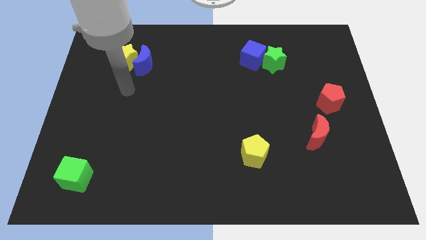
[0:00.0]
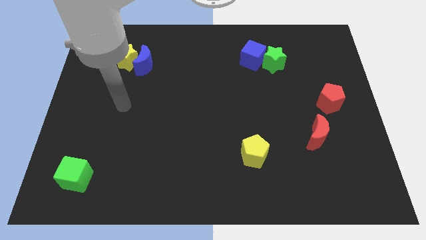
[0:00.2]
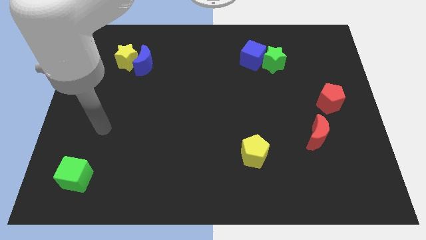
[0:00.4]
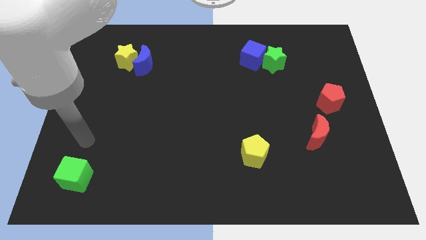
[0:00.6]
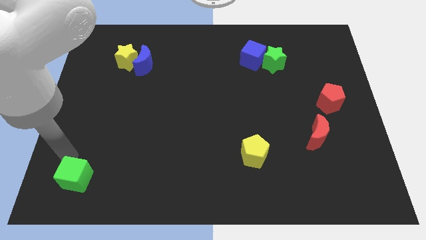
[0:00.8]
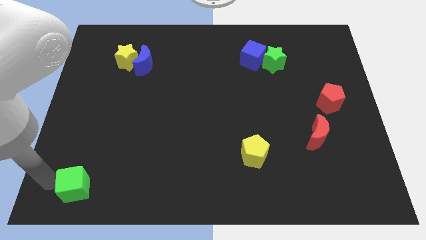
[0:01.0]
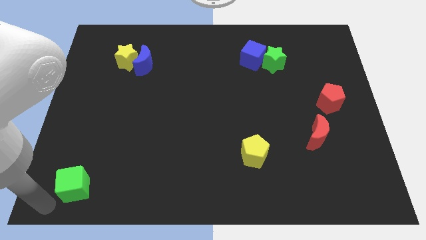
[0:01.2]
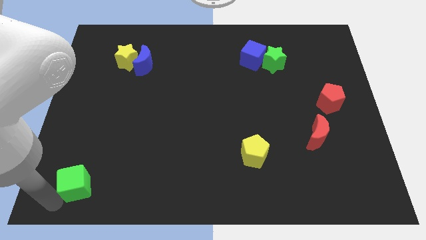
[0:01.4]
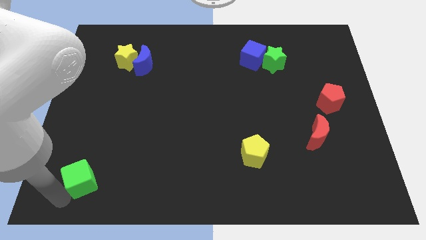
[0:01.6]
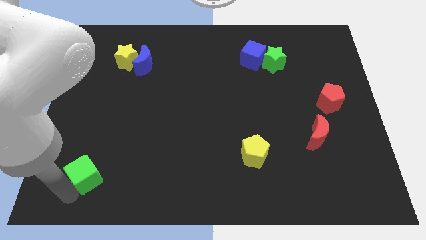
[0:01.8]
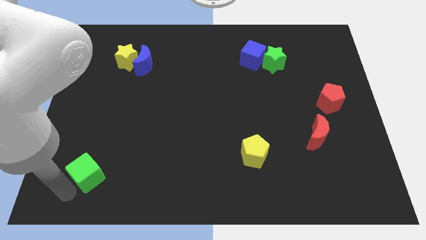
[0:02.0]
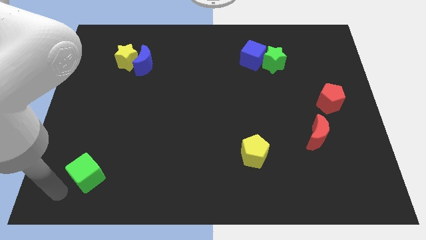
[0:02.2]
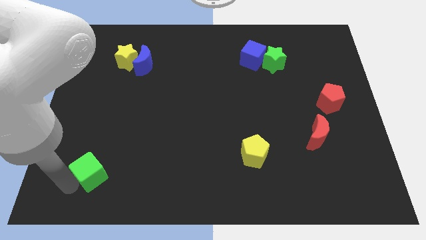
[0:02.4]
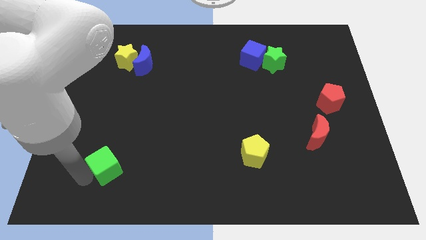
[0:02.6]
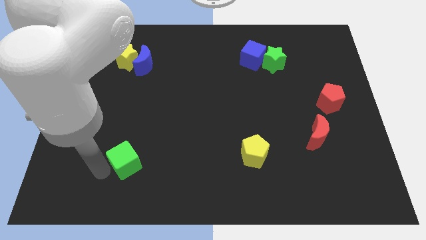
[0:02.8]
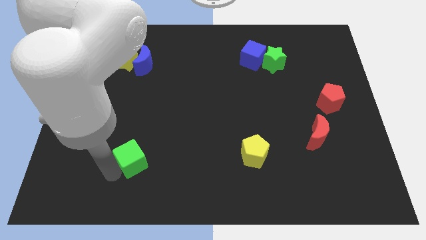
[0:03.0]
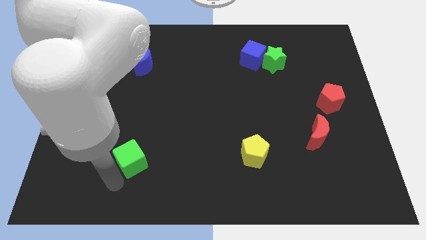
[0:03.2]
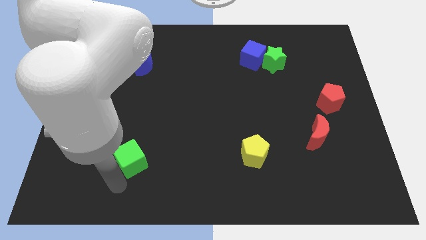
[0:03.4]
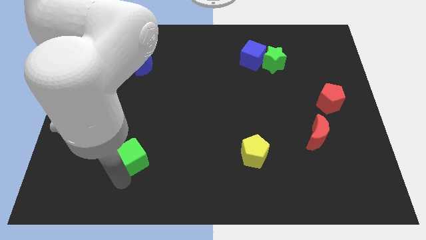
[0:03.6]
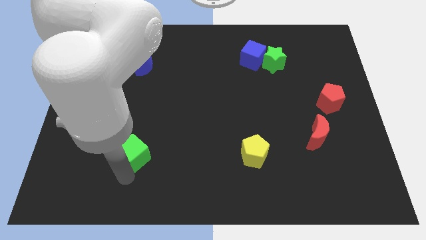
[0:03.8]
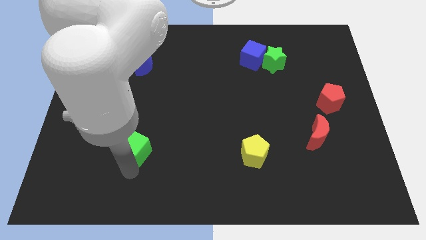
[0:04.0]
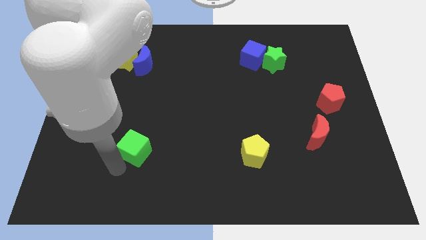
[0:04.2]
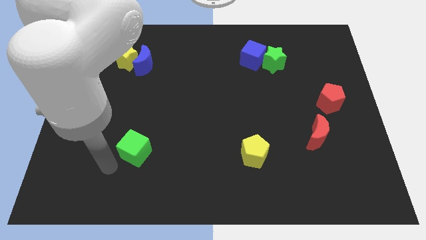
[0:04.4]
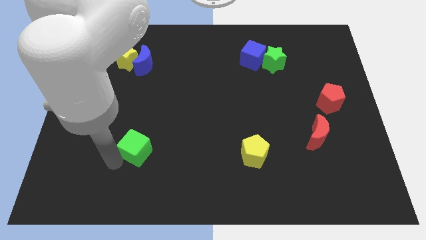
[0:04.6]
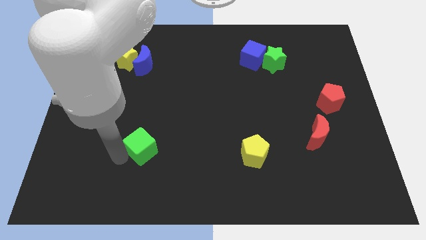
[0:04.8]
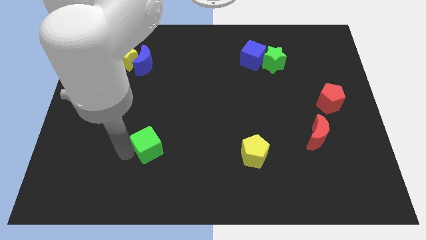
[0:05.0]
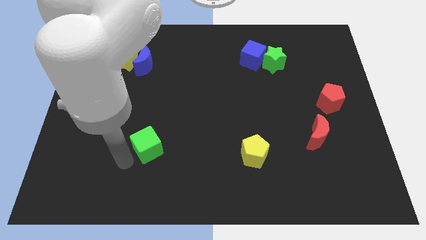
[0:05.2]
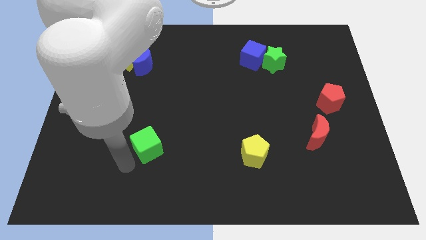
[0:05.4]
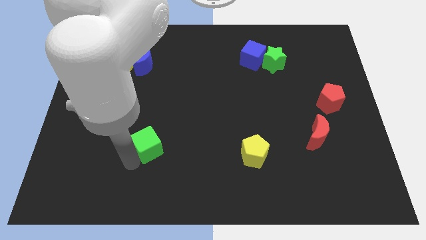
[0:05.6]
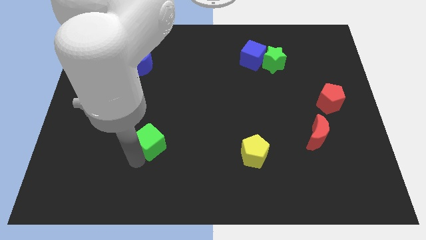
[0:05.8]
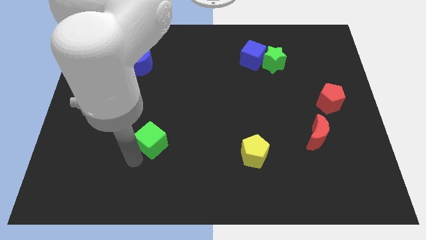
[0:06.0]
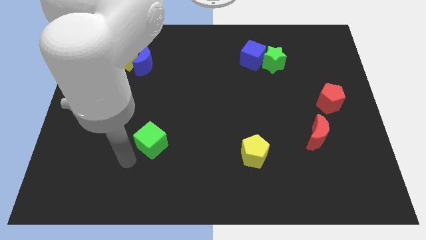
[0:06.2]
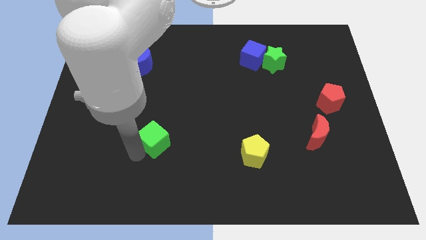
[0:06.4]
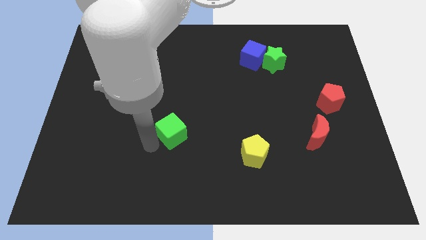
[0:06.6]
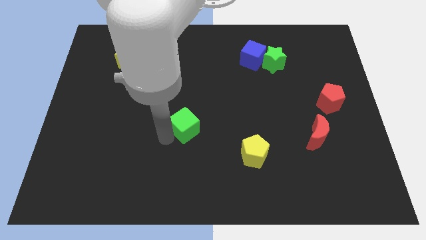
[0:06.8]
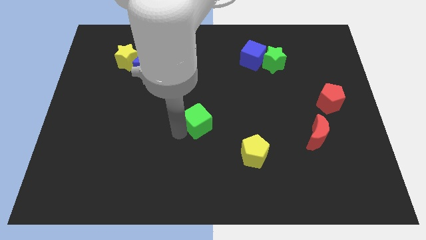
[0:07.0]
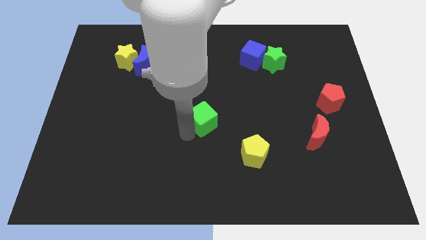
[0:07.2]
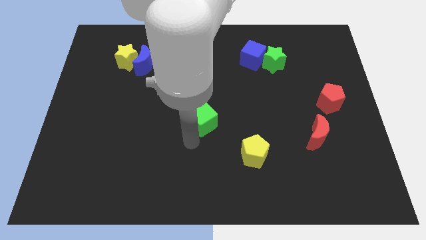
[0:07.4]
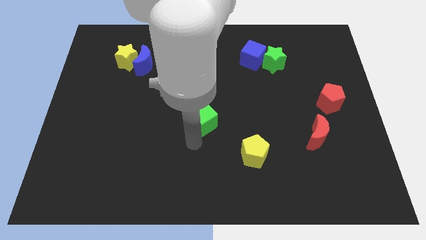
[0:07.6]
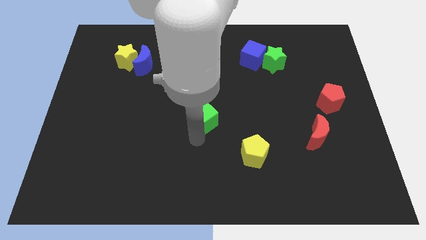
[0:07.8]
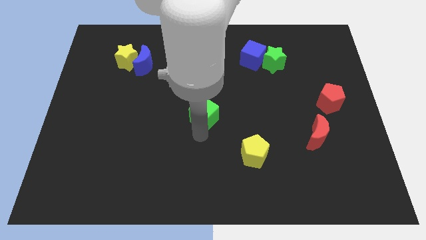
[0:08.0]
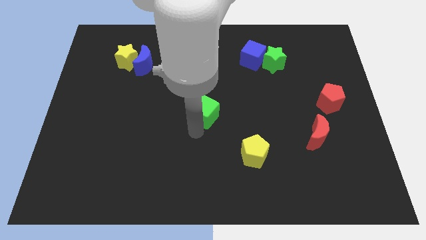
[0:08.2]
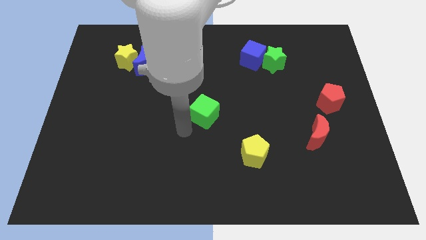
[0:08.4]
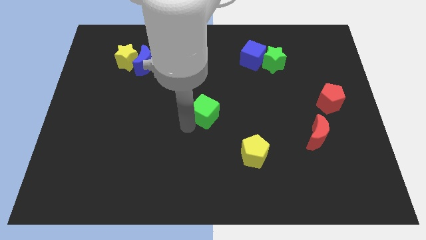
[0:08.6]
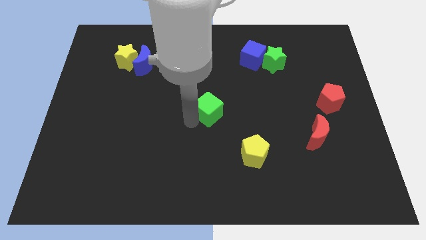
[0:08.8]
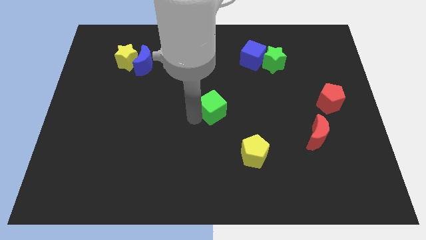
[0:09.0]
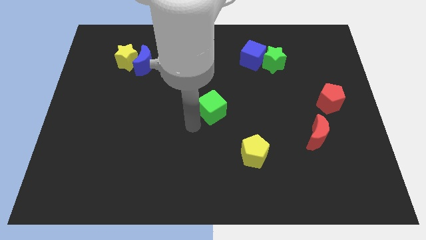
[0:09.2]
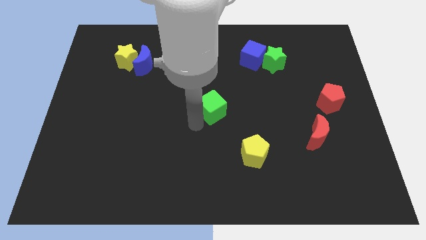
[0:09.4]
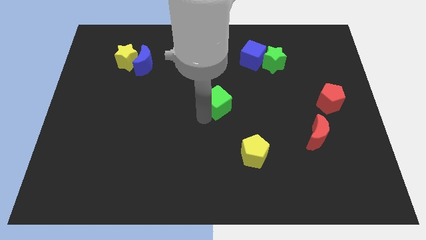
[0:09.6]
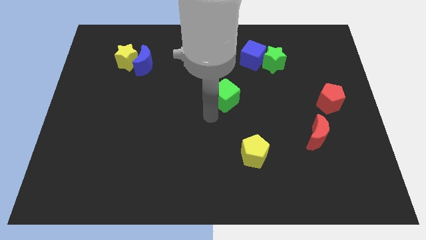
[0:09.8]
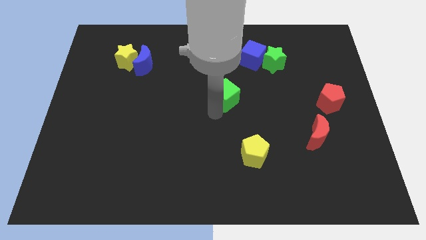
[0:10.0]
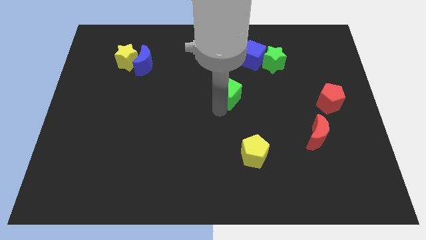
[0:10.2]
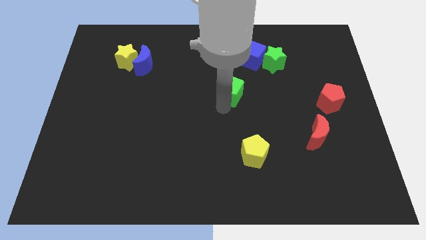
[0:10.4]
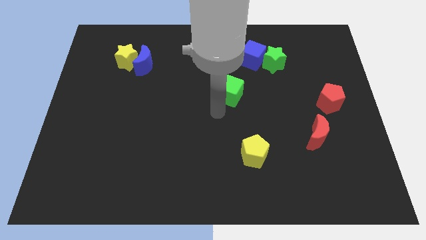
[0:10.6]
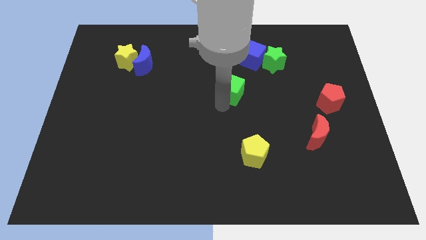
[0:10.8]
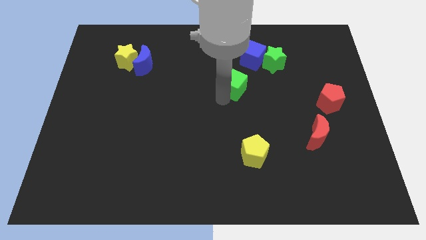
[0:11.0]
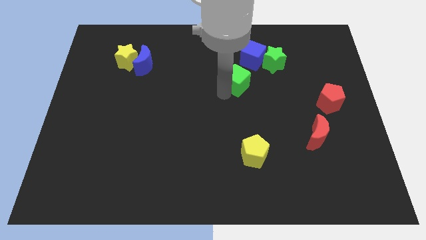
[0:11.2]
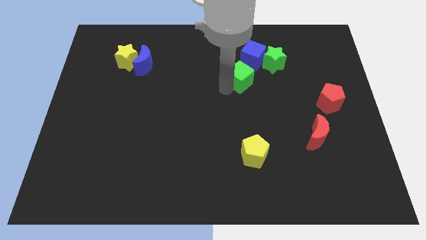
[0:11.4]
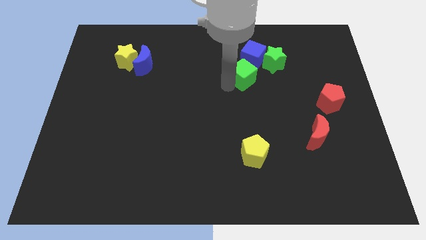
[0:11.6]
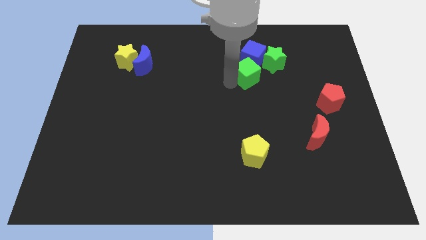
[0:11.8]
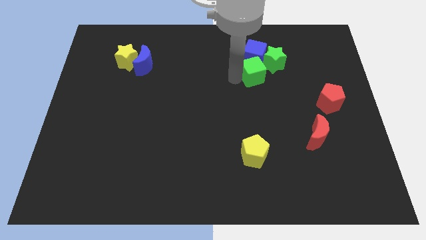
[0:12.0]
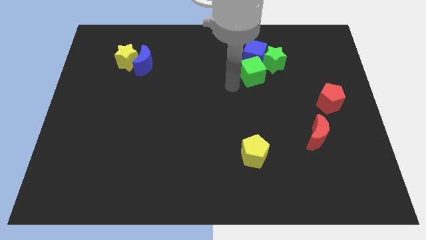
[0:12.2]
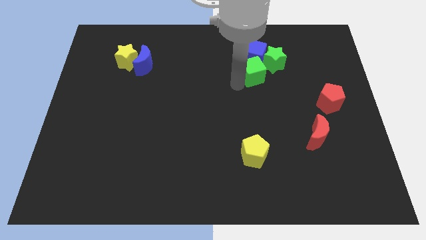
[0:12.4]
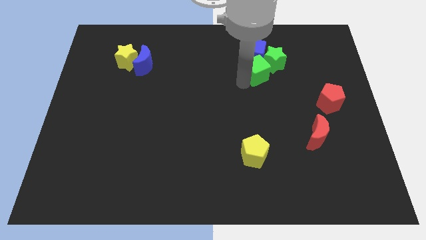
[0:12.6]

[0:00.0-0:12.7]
put the green cube towards the green star

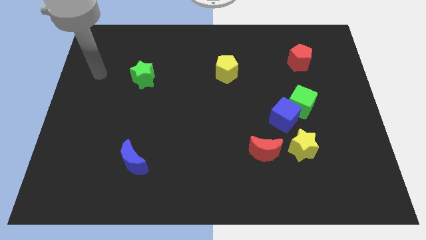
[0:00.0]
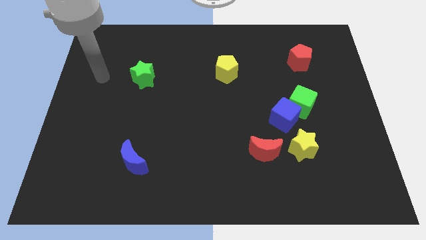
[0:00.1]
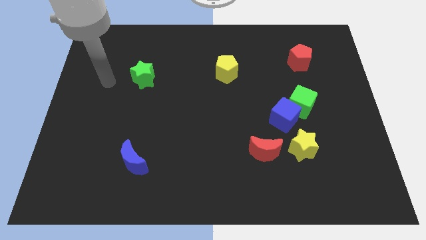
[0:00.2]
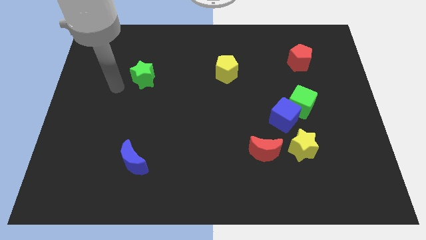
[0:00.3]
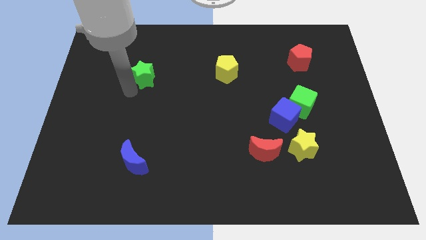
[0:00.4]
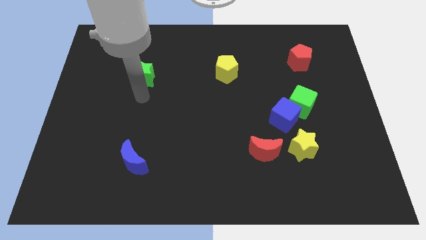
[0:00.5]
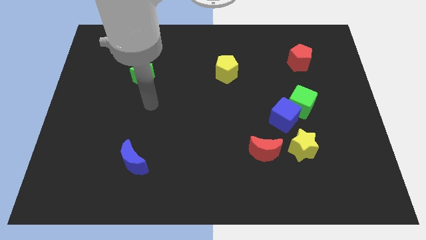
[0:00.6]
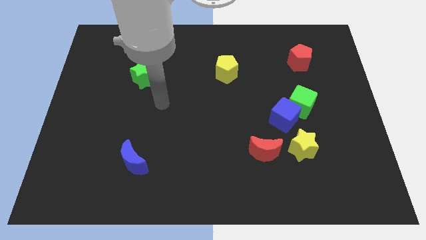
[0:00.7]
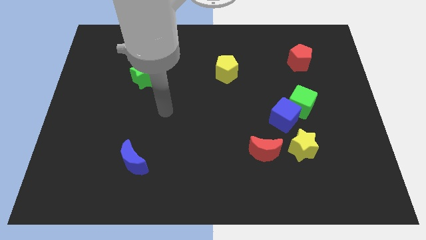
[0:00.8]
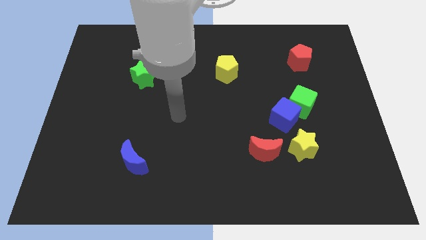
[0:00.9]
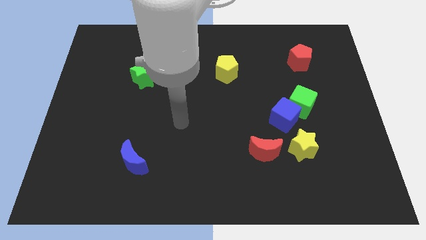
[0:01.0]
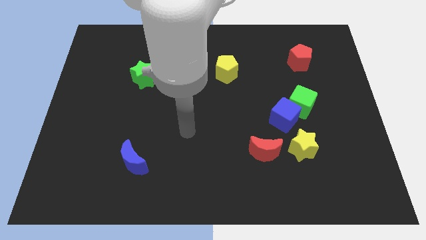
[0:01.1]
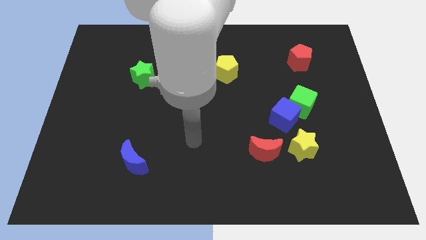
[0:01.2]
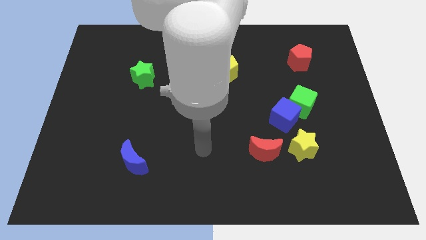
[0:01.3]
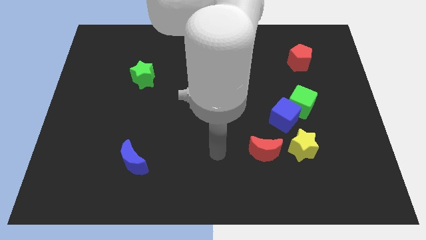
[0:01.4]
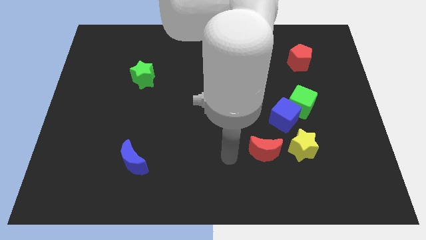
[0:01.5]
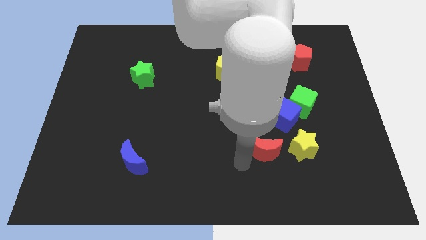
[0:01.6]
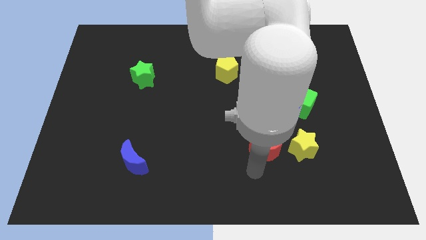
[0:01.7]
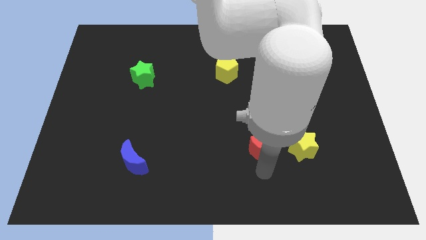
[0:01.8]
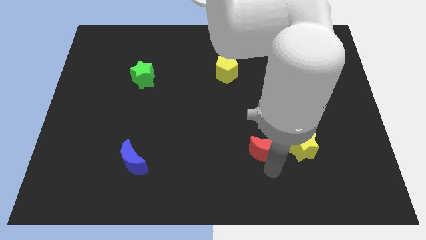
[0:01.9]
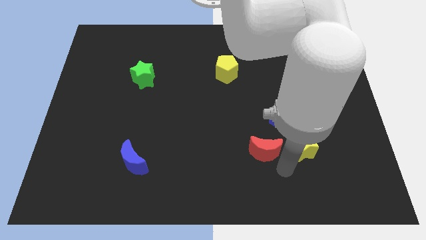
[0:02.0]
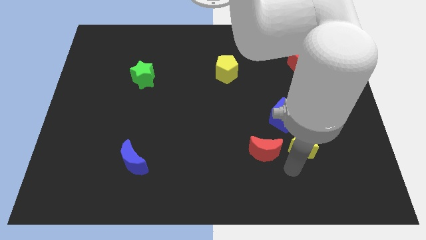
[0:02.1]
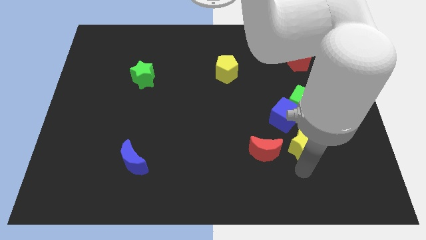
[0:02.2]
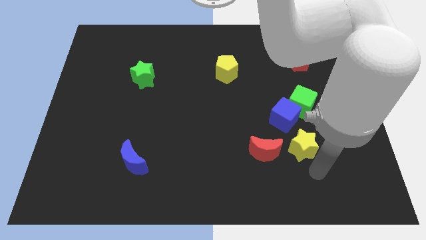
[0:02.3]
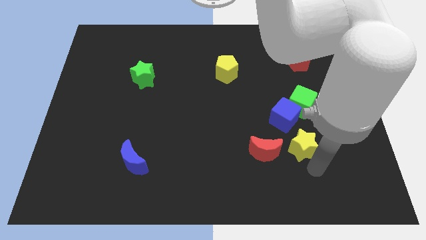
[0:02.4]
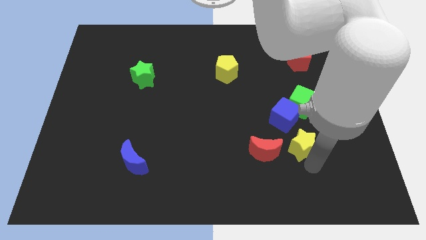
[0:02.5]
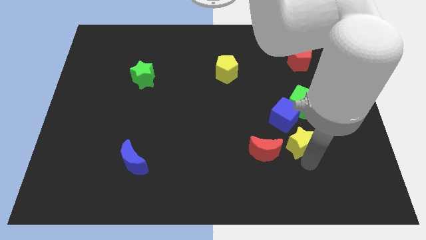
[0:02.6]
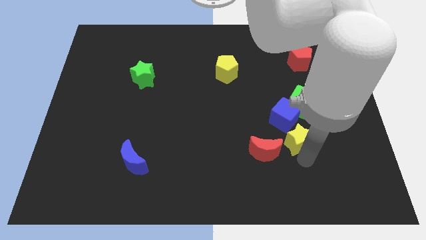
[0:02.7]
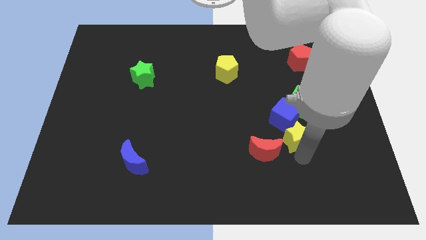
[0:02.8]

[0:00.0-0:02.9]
put the yellow star close to the blue cube
